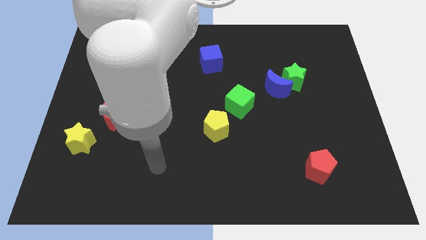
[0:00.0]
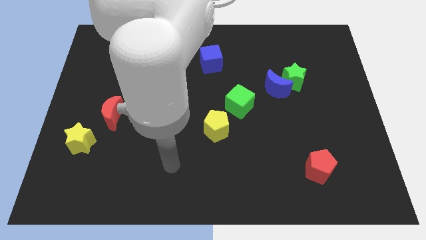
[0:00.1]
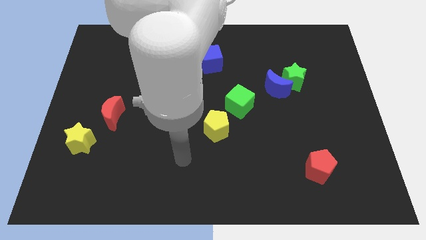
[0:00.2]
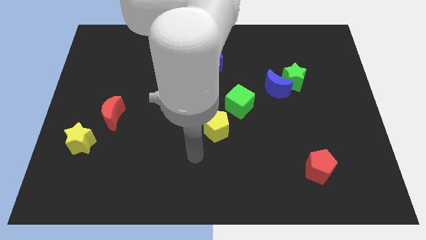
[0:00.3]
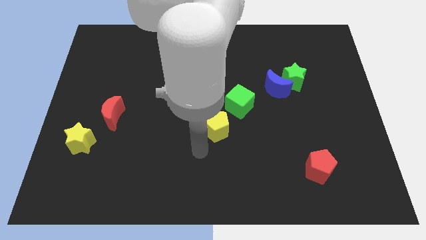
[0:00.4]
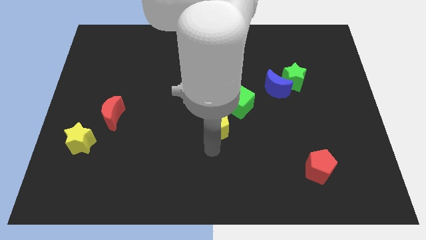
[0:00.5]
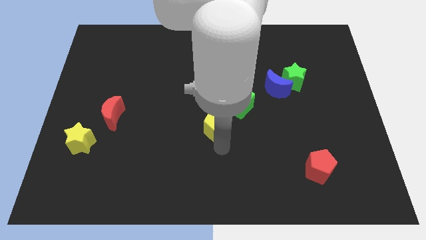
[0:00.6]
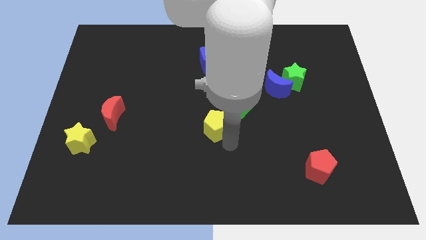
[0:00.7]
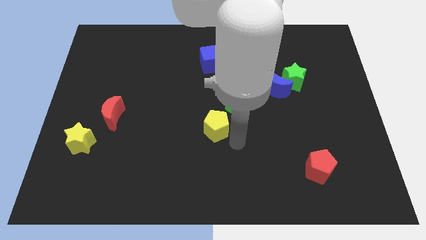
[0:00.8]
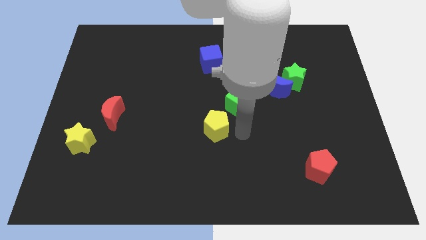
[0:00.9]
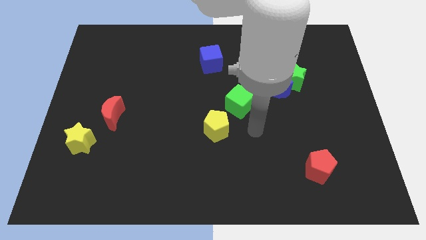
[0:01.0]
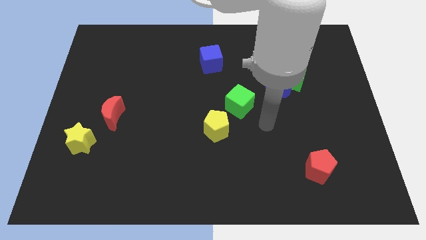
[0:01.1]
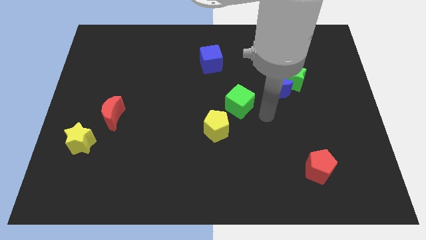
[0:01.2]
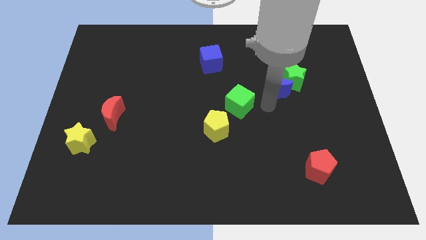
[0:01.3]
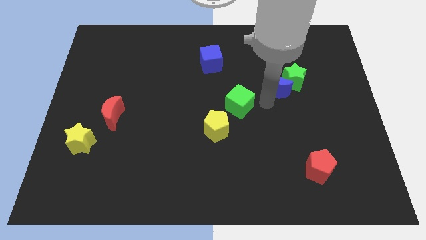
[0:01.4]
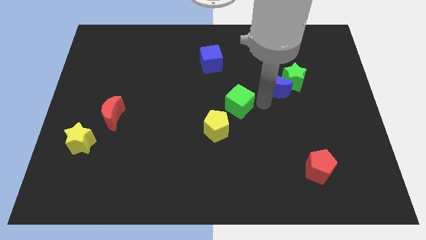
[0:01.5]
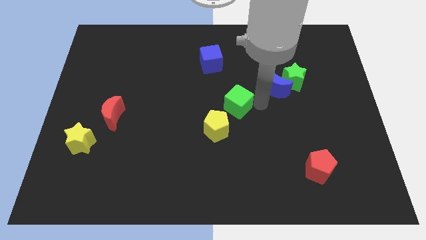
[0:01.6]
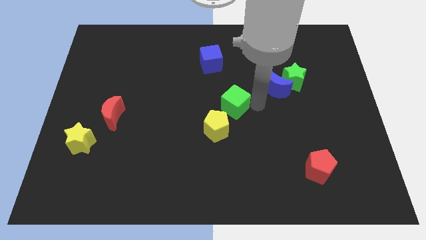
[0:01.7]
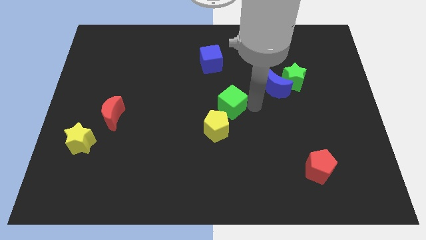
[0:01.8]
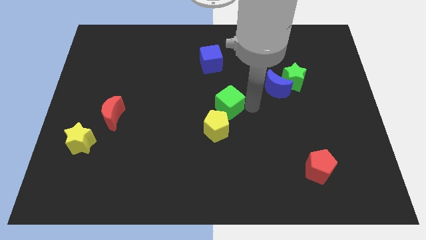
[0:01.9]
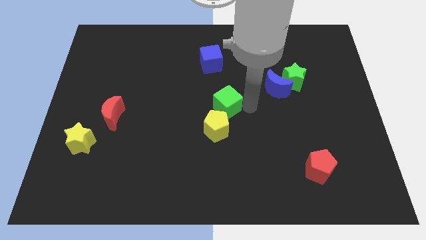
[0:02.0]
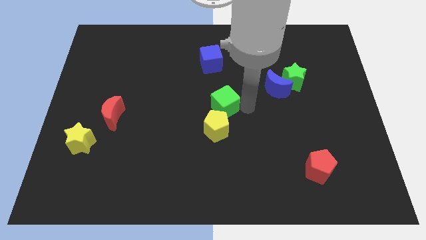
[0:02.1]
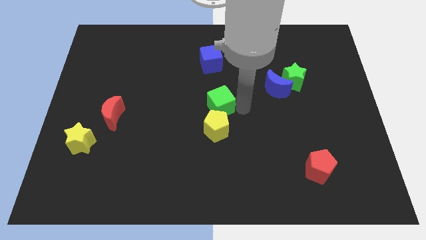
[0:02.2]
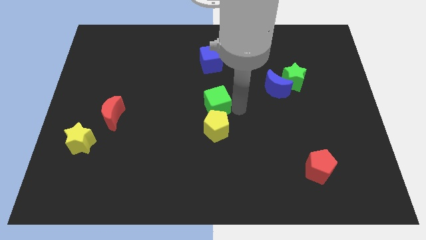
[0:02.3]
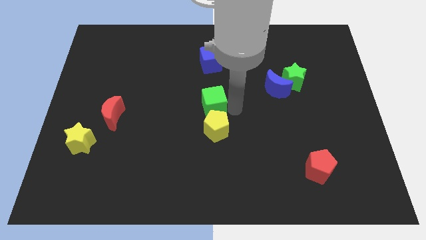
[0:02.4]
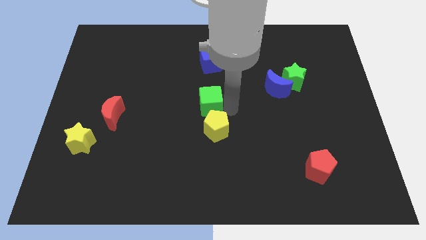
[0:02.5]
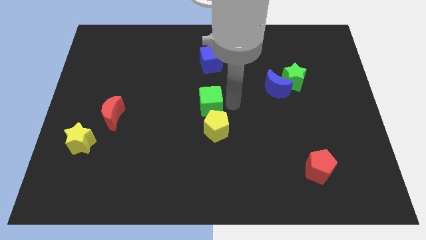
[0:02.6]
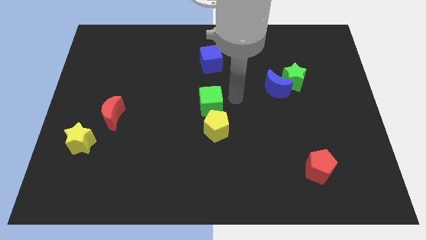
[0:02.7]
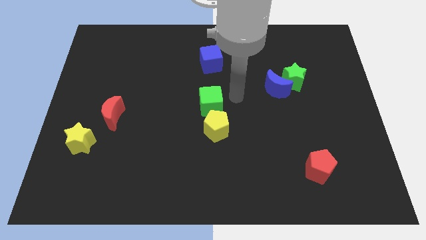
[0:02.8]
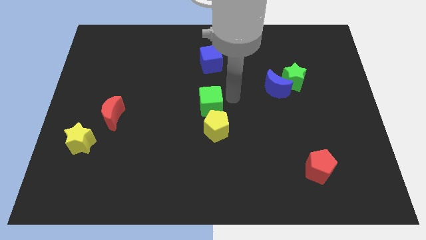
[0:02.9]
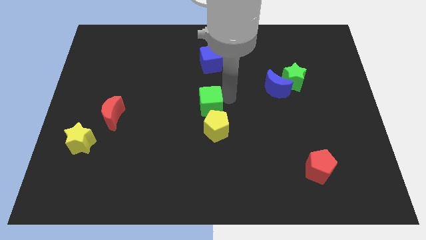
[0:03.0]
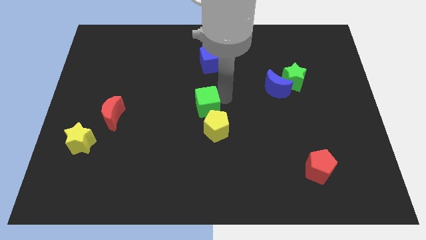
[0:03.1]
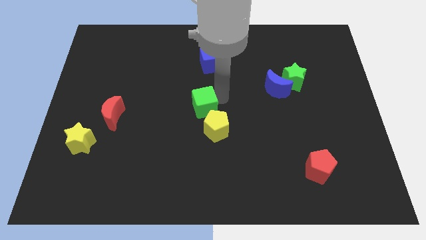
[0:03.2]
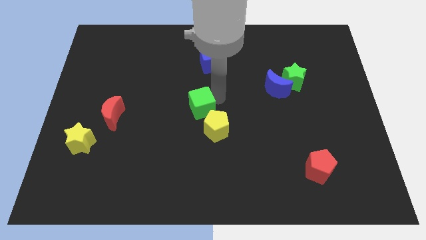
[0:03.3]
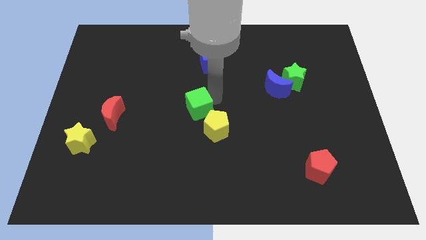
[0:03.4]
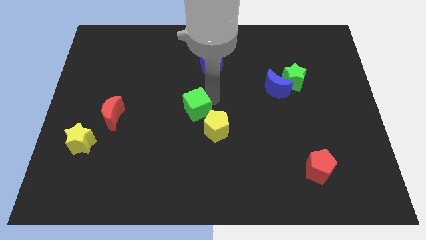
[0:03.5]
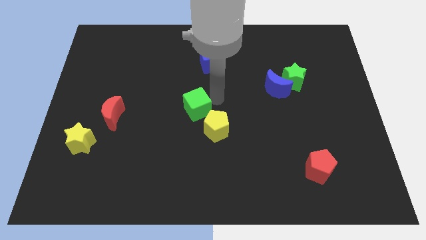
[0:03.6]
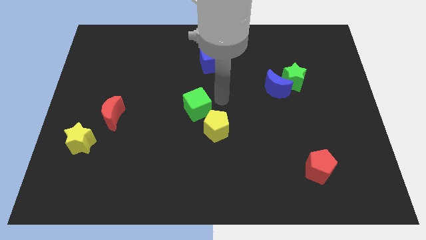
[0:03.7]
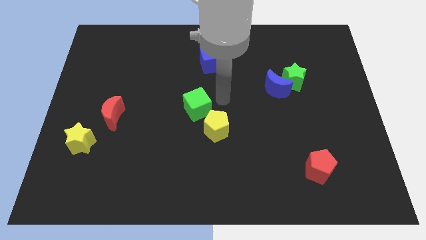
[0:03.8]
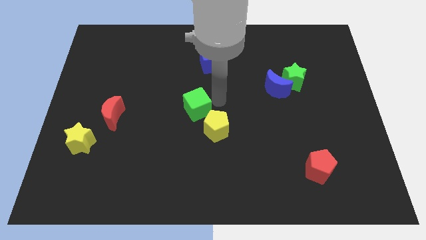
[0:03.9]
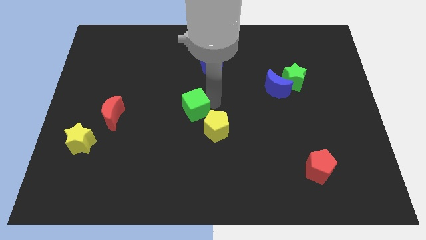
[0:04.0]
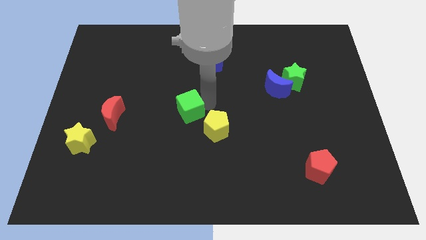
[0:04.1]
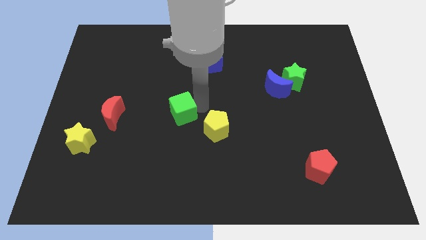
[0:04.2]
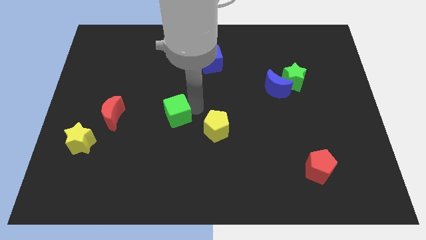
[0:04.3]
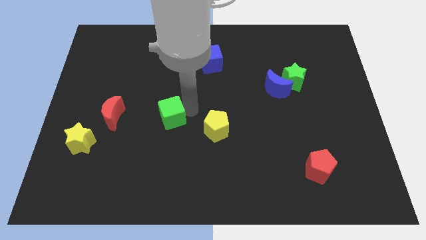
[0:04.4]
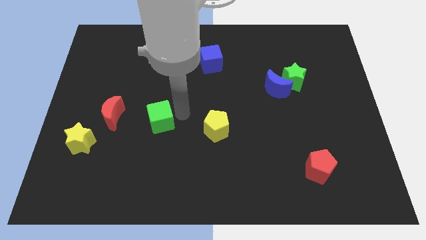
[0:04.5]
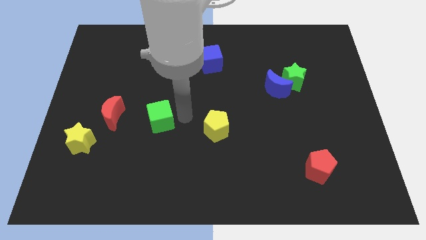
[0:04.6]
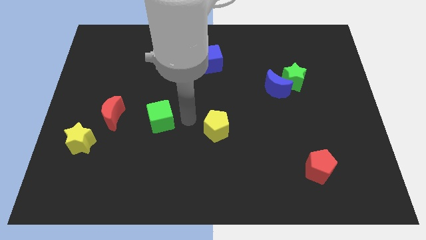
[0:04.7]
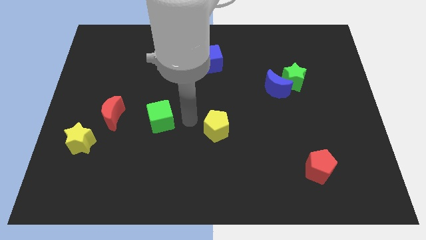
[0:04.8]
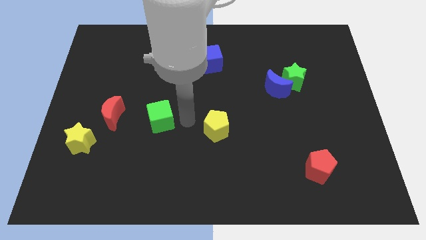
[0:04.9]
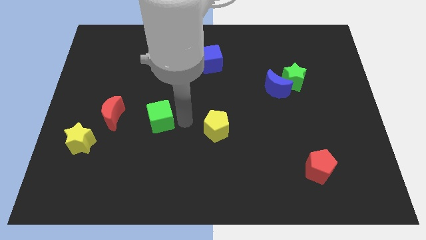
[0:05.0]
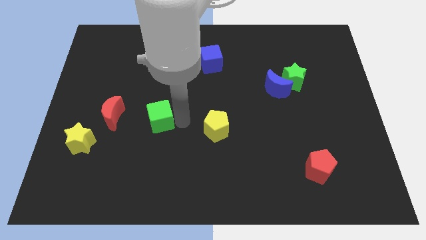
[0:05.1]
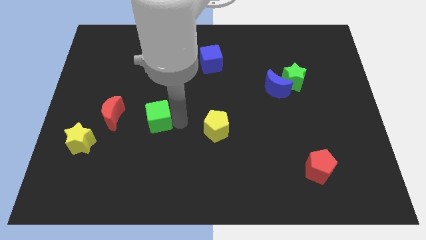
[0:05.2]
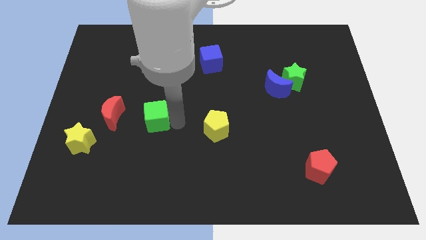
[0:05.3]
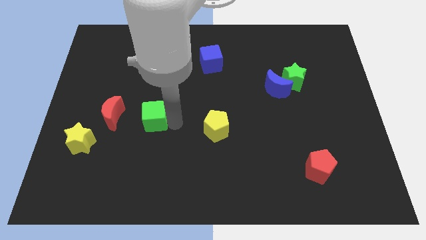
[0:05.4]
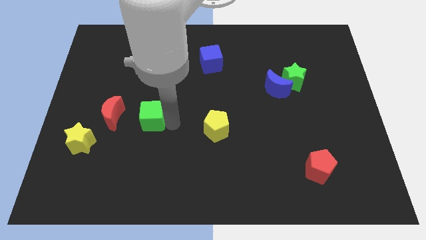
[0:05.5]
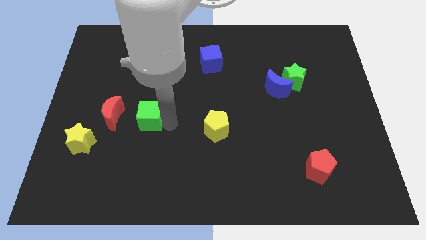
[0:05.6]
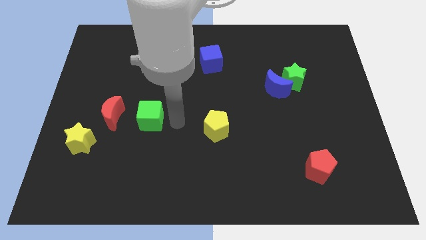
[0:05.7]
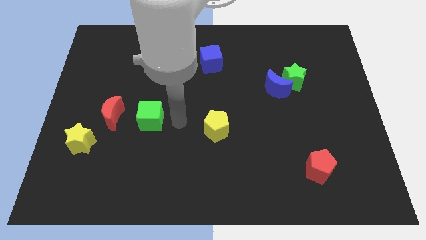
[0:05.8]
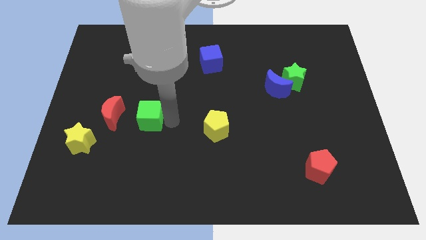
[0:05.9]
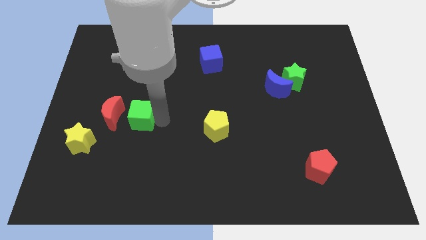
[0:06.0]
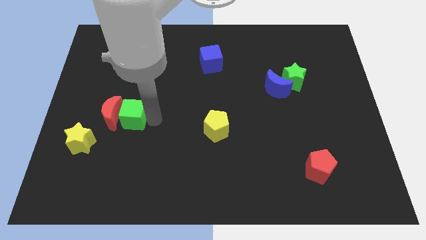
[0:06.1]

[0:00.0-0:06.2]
push the green cube next to the red moon

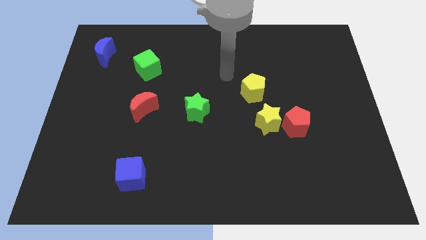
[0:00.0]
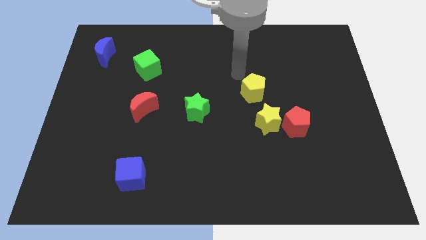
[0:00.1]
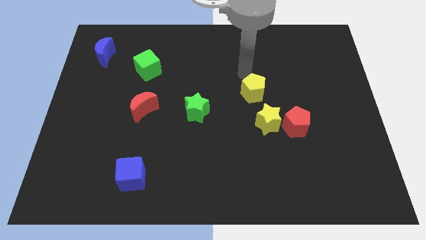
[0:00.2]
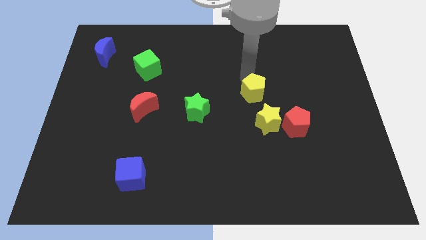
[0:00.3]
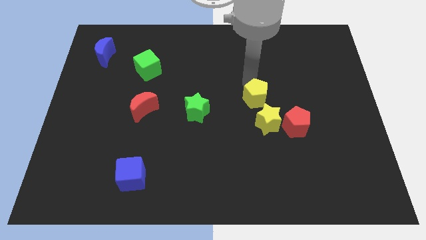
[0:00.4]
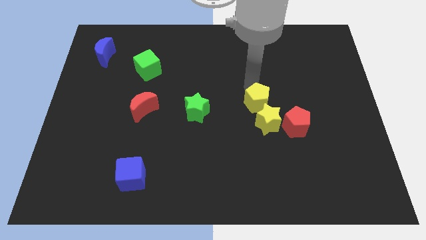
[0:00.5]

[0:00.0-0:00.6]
move the yellow pentagon next to the yellow star
